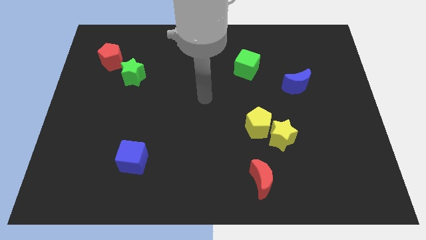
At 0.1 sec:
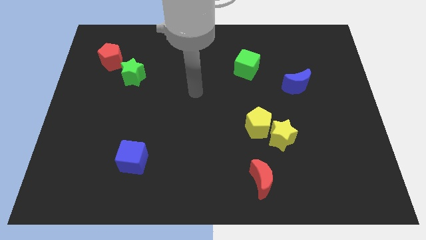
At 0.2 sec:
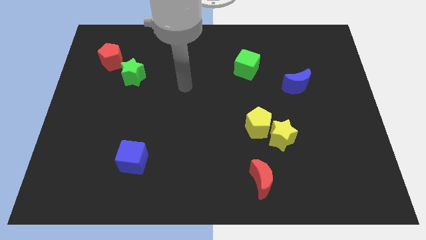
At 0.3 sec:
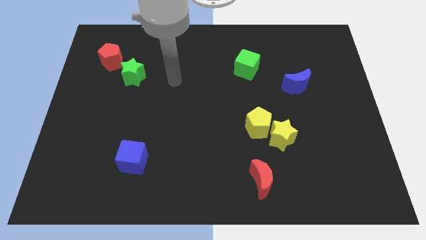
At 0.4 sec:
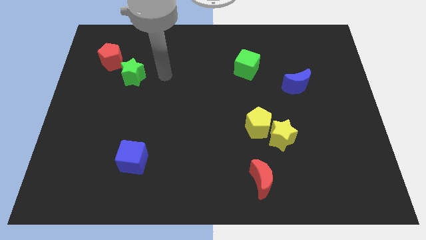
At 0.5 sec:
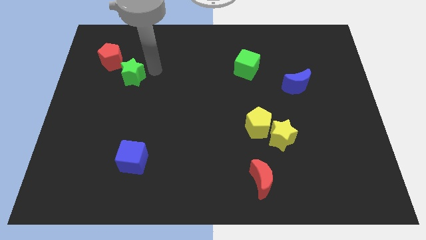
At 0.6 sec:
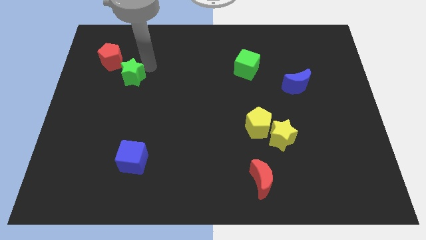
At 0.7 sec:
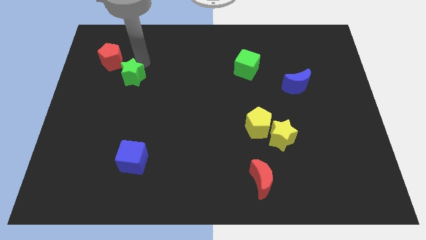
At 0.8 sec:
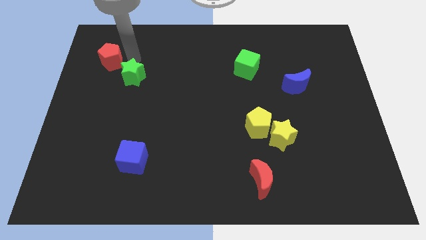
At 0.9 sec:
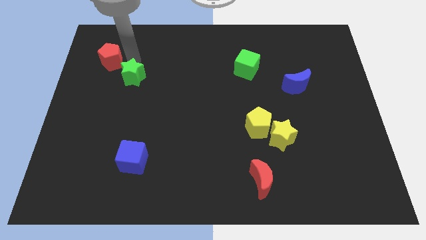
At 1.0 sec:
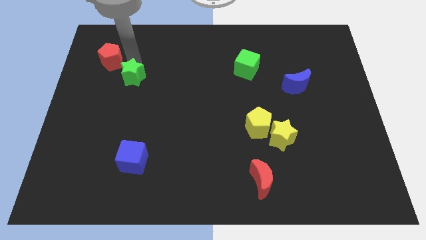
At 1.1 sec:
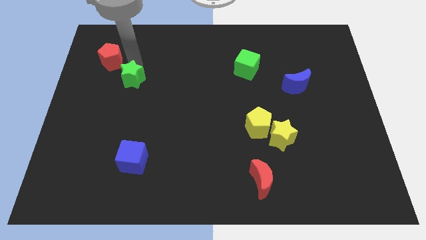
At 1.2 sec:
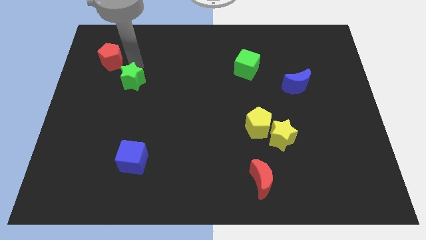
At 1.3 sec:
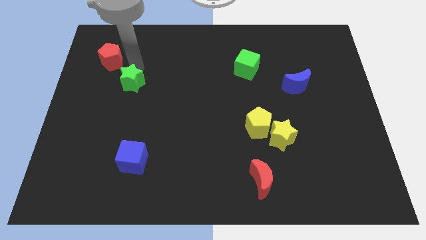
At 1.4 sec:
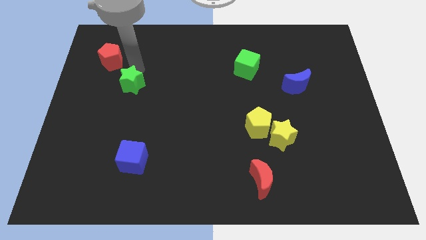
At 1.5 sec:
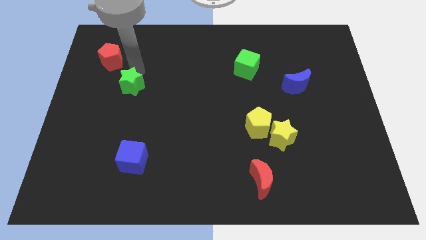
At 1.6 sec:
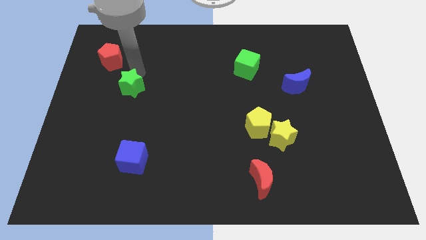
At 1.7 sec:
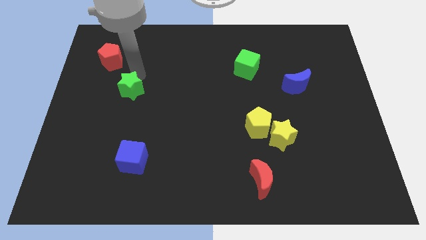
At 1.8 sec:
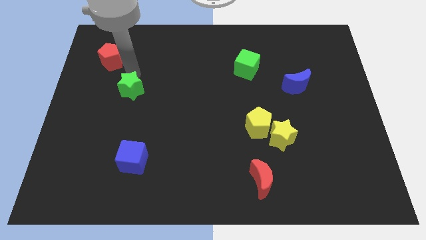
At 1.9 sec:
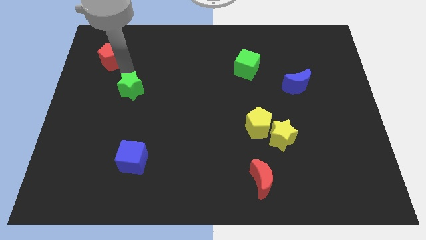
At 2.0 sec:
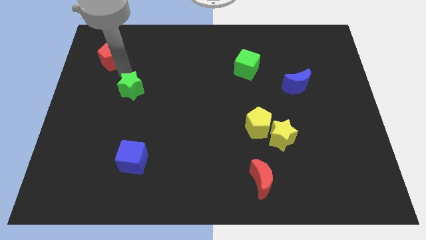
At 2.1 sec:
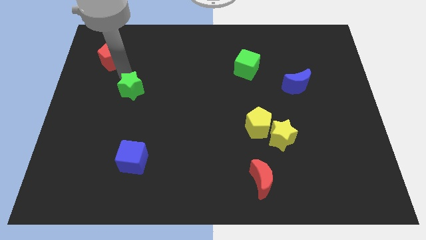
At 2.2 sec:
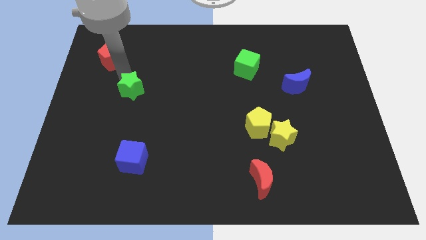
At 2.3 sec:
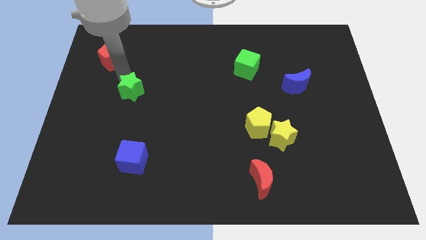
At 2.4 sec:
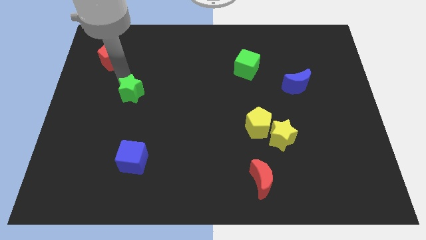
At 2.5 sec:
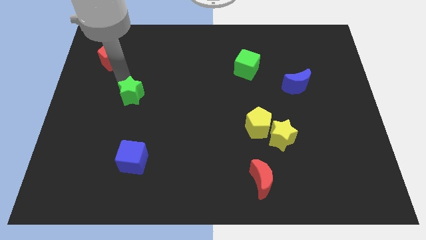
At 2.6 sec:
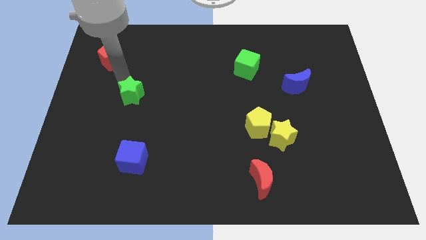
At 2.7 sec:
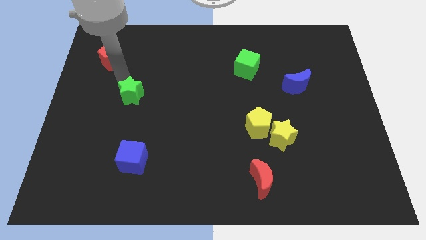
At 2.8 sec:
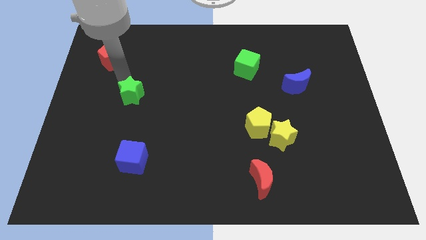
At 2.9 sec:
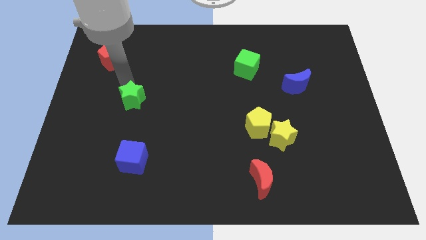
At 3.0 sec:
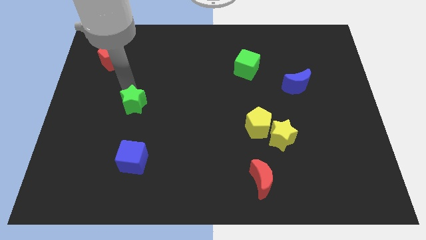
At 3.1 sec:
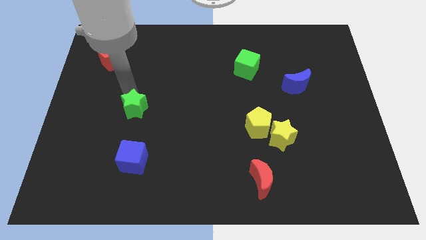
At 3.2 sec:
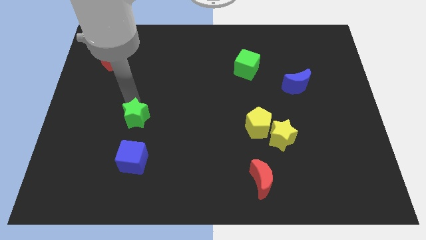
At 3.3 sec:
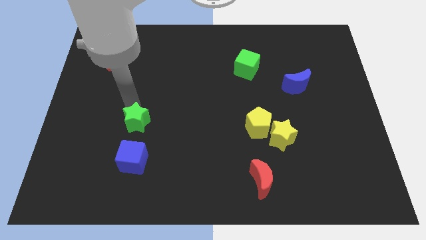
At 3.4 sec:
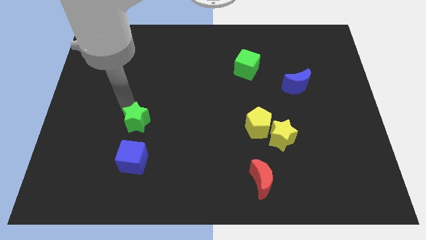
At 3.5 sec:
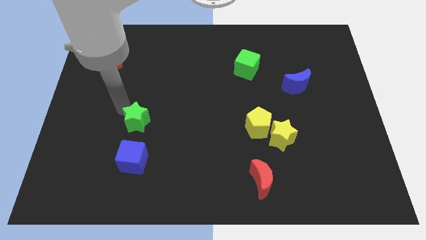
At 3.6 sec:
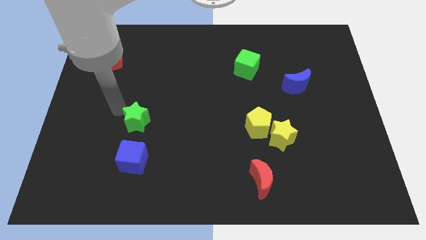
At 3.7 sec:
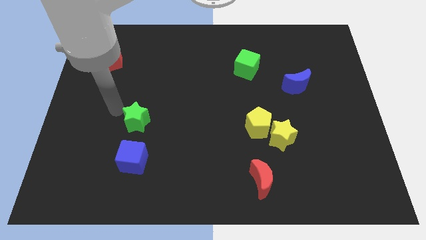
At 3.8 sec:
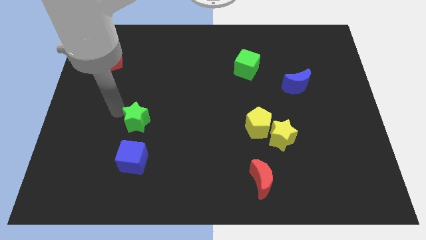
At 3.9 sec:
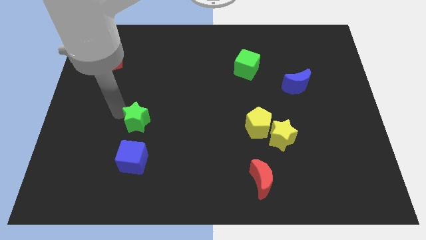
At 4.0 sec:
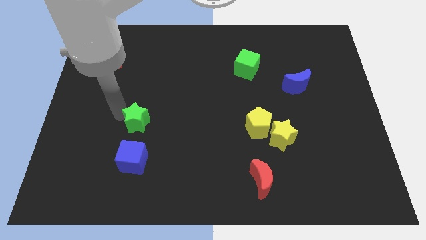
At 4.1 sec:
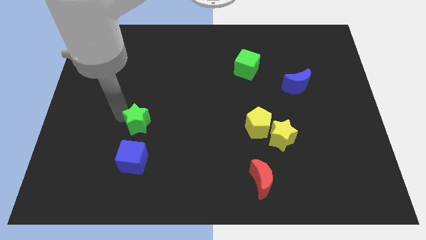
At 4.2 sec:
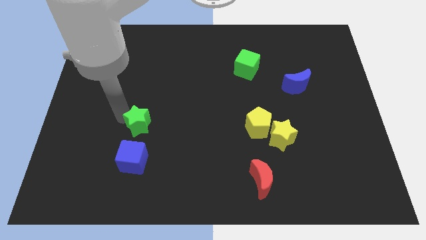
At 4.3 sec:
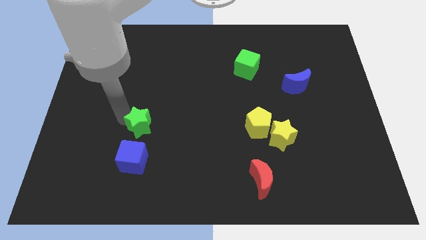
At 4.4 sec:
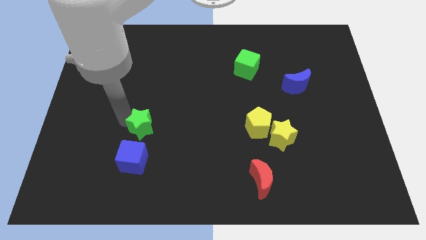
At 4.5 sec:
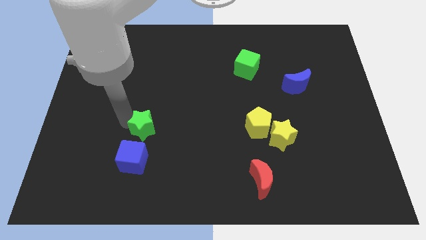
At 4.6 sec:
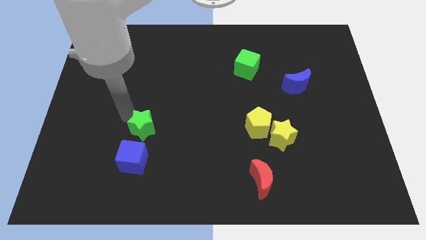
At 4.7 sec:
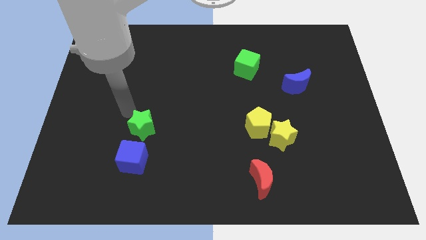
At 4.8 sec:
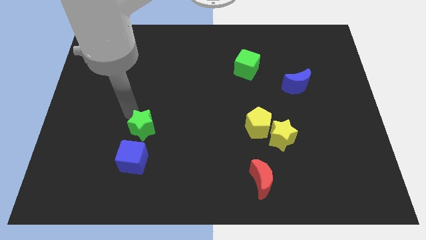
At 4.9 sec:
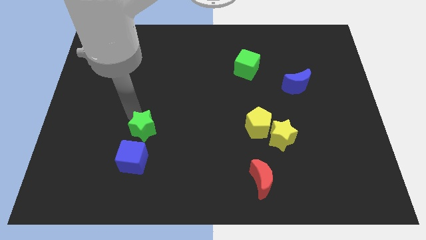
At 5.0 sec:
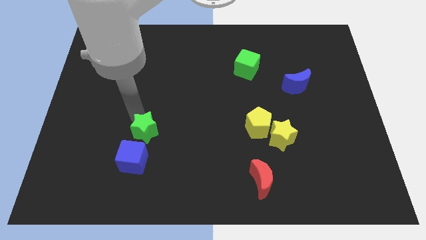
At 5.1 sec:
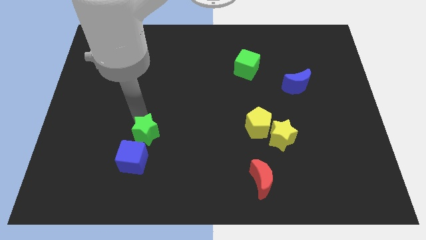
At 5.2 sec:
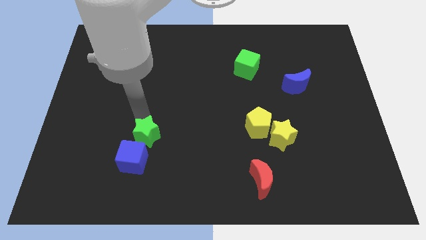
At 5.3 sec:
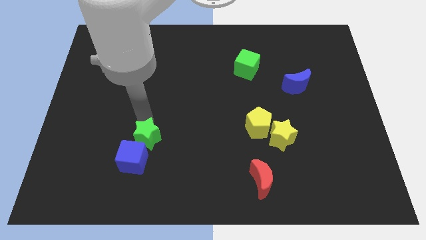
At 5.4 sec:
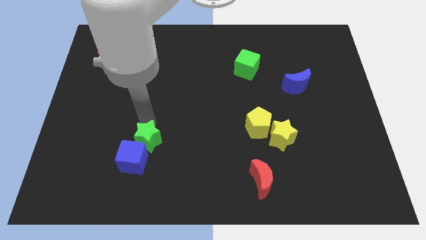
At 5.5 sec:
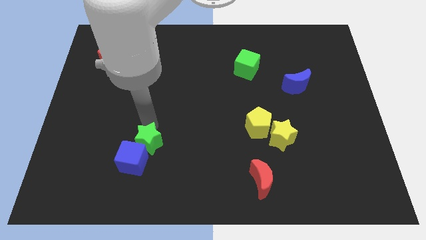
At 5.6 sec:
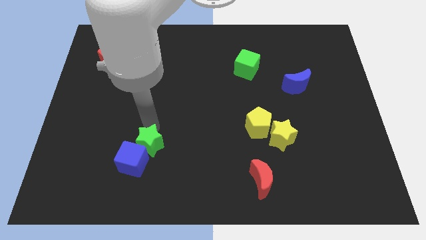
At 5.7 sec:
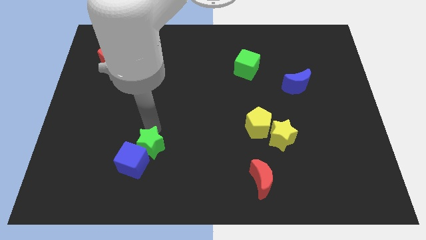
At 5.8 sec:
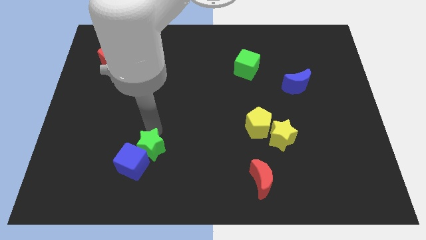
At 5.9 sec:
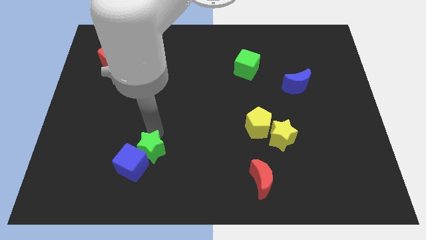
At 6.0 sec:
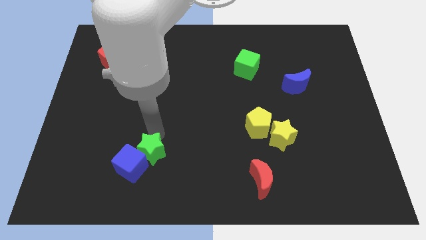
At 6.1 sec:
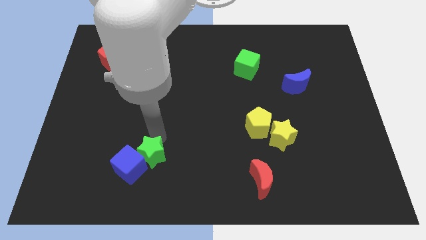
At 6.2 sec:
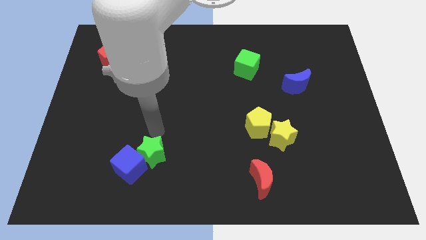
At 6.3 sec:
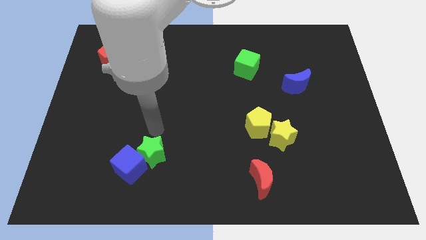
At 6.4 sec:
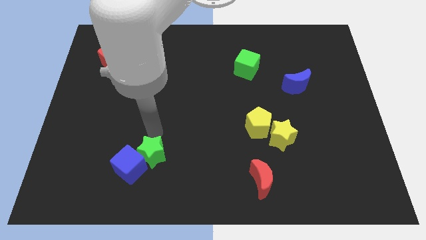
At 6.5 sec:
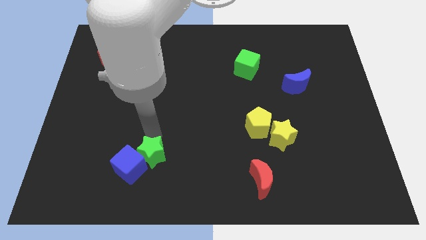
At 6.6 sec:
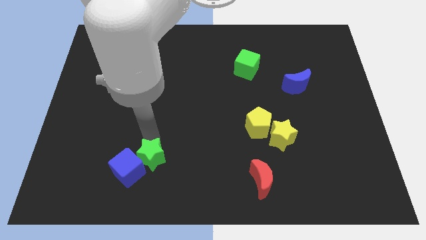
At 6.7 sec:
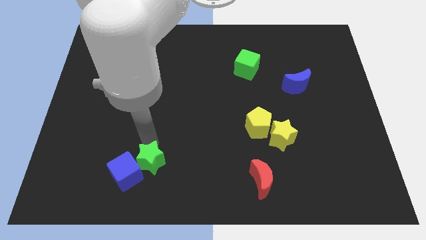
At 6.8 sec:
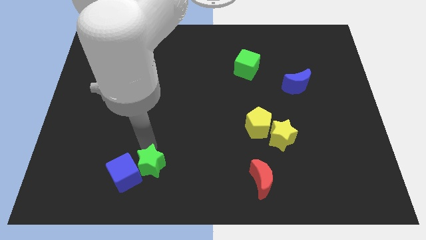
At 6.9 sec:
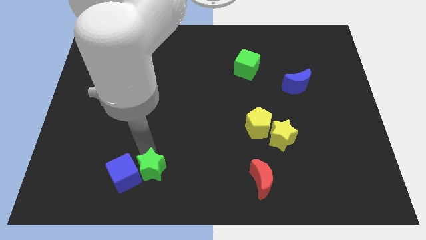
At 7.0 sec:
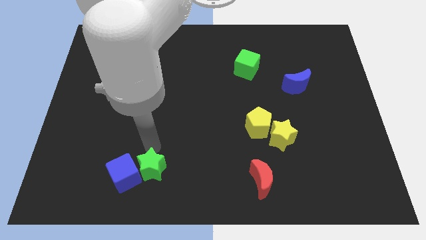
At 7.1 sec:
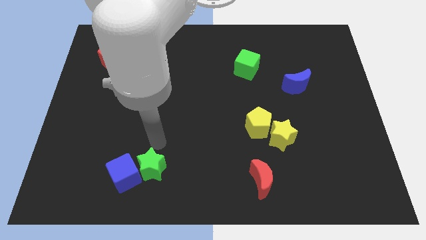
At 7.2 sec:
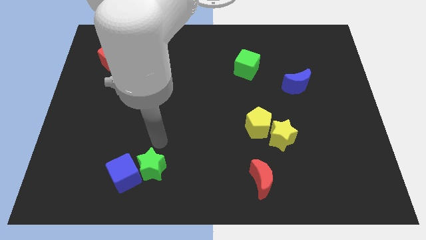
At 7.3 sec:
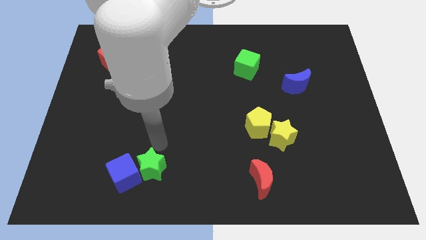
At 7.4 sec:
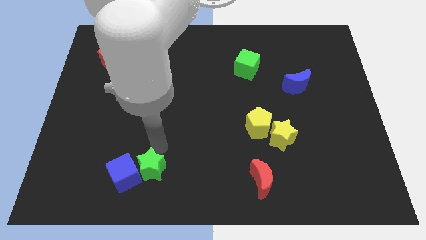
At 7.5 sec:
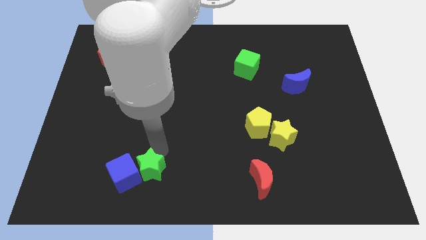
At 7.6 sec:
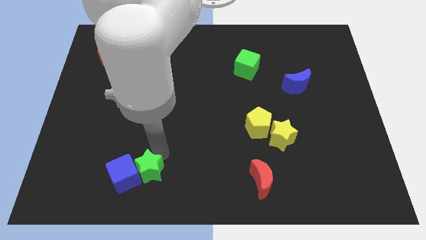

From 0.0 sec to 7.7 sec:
push the green star to the bottom right side of the blue cube

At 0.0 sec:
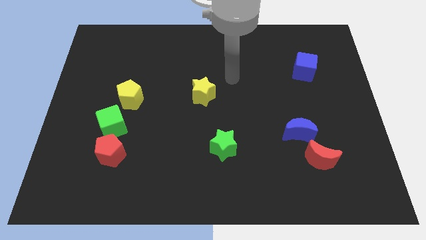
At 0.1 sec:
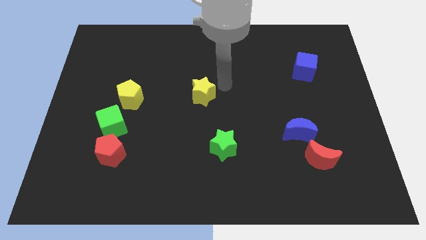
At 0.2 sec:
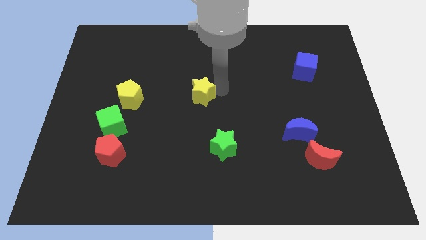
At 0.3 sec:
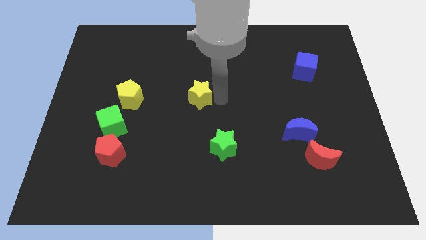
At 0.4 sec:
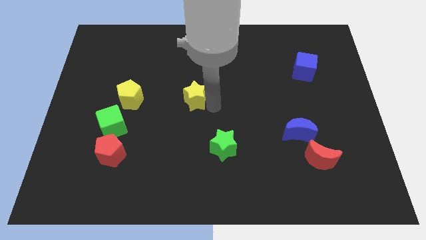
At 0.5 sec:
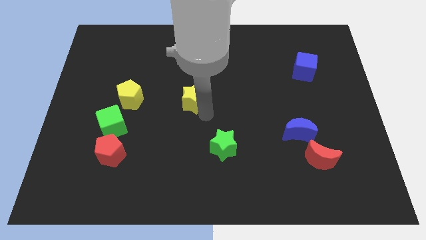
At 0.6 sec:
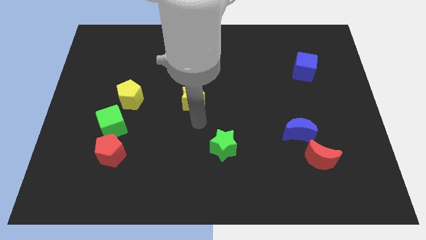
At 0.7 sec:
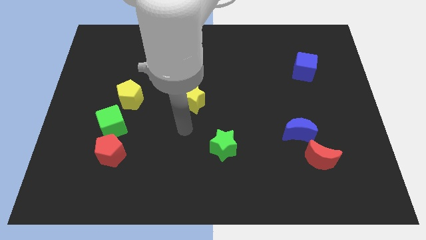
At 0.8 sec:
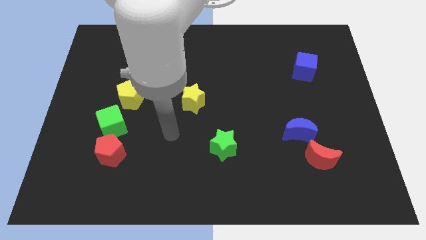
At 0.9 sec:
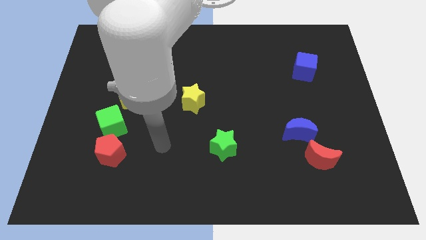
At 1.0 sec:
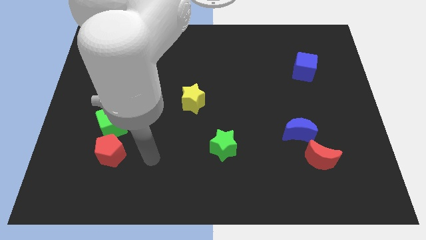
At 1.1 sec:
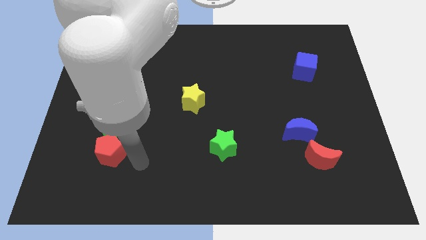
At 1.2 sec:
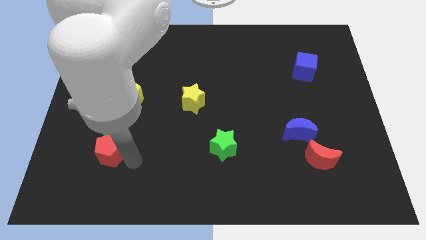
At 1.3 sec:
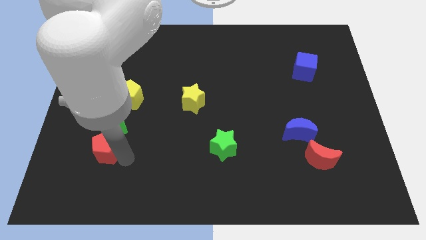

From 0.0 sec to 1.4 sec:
slide the red pentagon to the bottom left of the green cube
